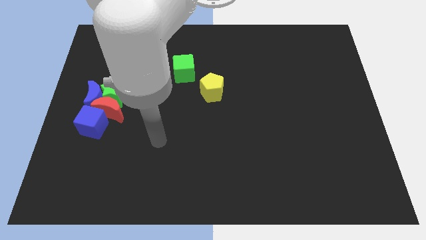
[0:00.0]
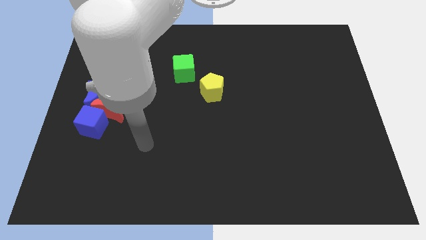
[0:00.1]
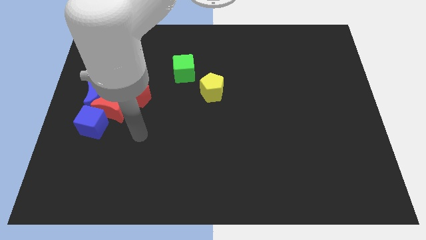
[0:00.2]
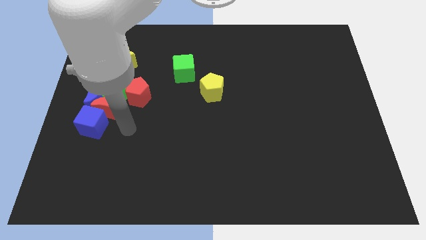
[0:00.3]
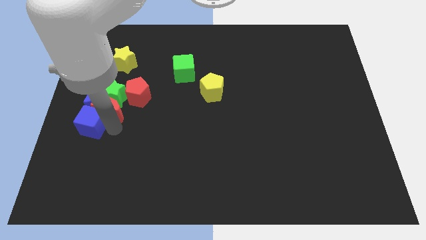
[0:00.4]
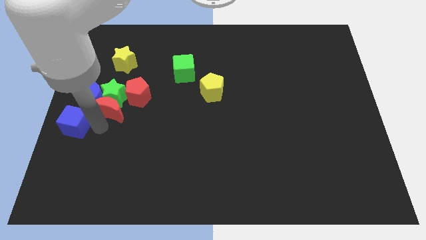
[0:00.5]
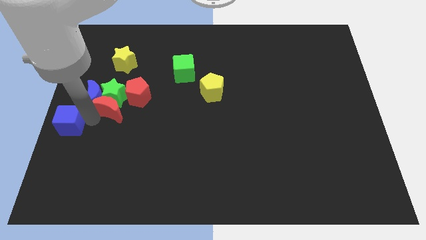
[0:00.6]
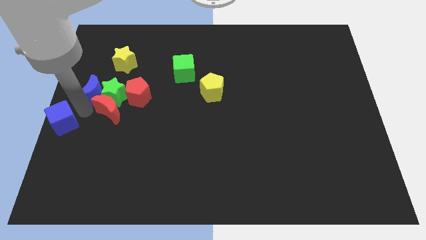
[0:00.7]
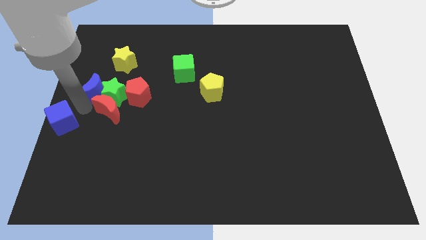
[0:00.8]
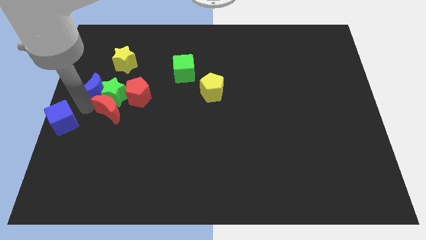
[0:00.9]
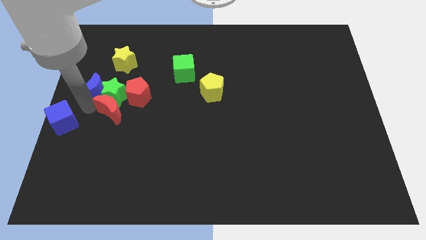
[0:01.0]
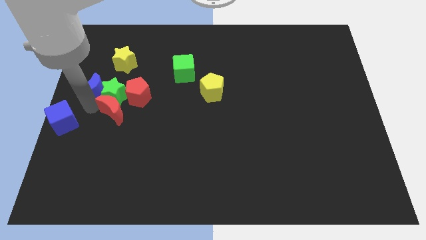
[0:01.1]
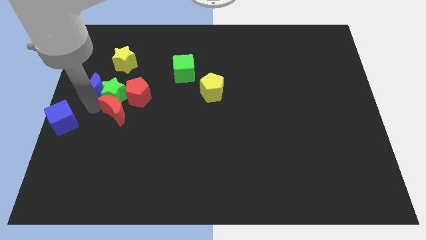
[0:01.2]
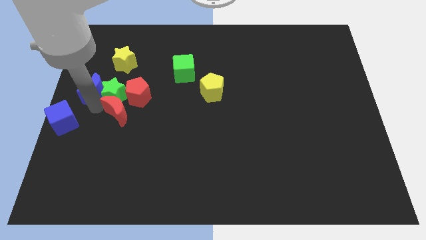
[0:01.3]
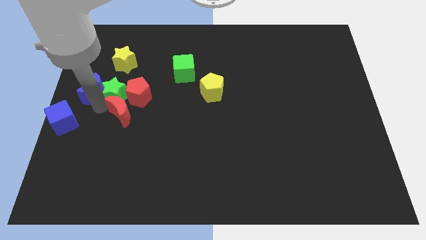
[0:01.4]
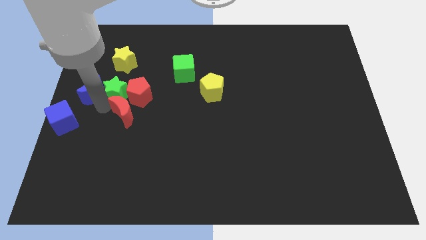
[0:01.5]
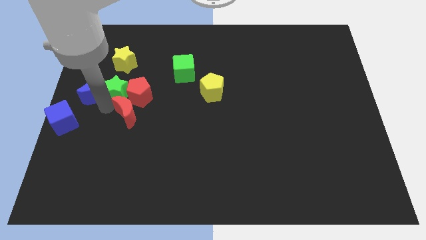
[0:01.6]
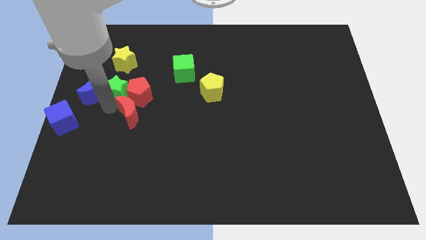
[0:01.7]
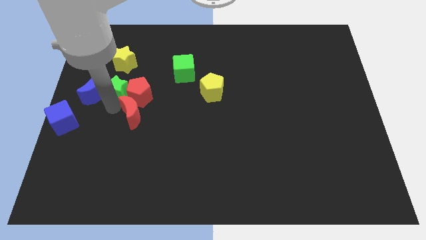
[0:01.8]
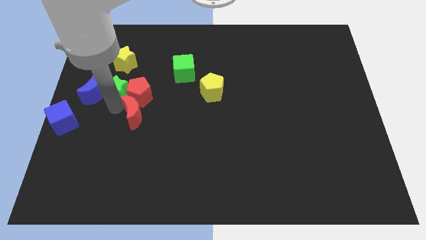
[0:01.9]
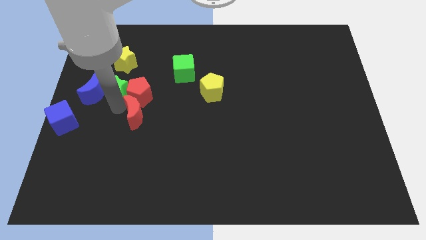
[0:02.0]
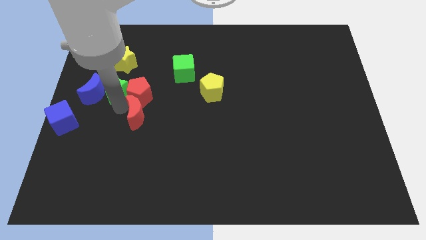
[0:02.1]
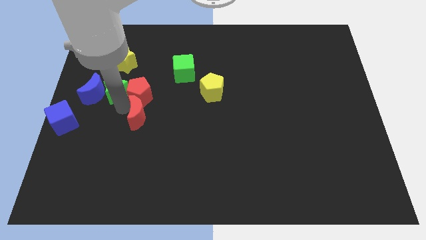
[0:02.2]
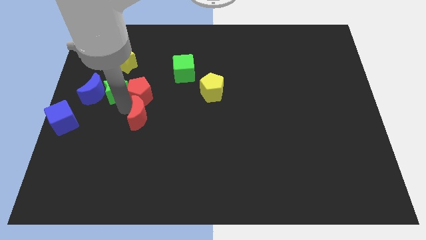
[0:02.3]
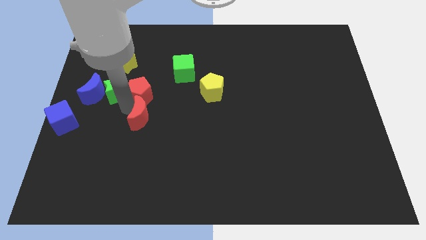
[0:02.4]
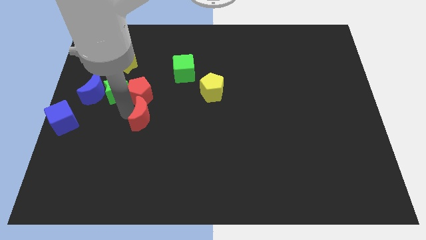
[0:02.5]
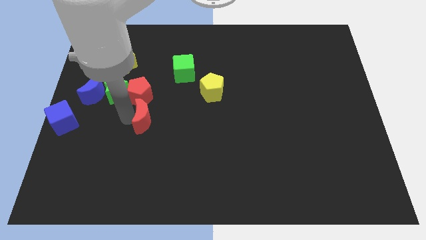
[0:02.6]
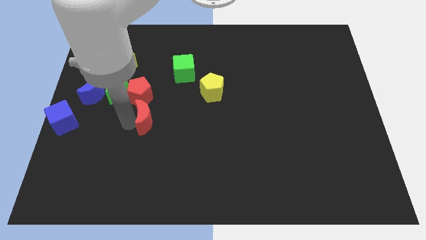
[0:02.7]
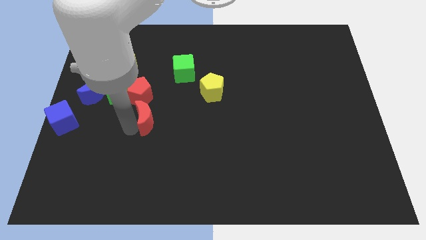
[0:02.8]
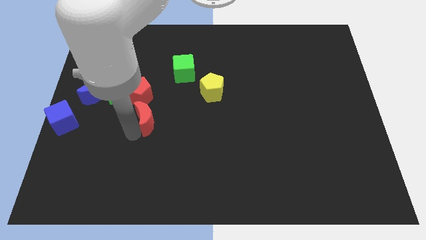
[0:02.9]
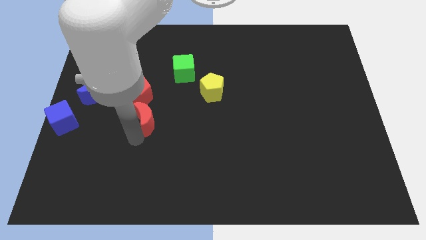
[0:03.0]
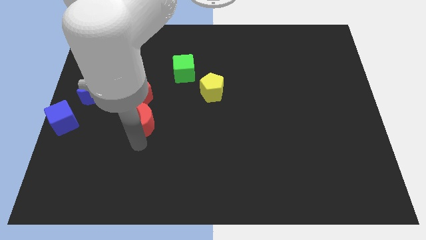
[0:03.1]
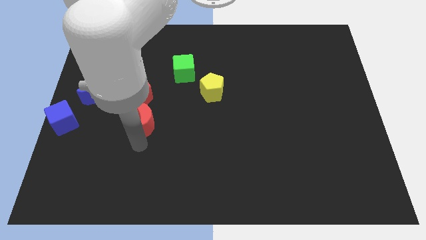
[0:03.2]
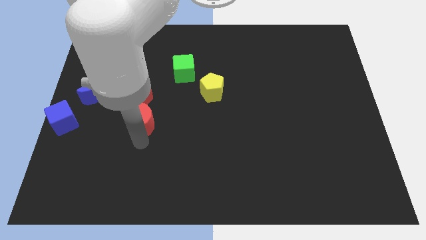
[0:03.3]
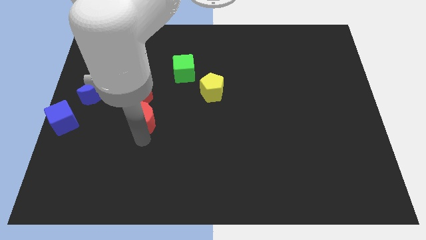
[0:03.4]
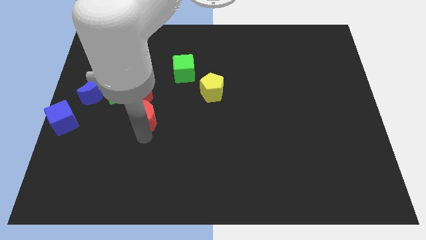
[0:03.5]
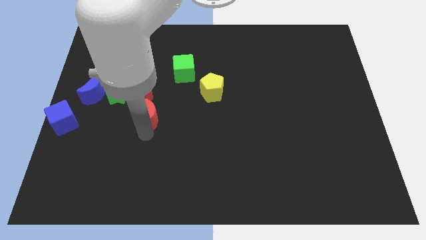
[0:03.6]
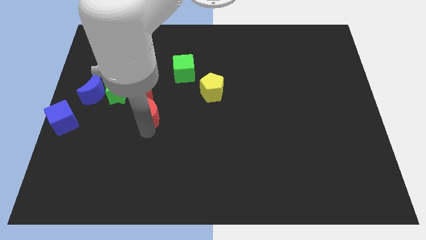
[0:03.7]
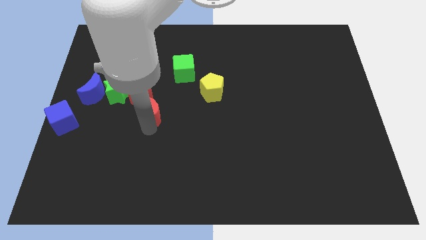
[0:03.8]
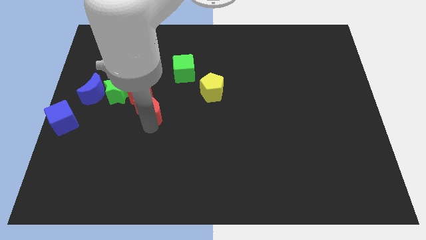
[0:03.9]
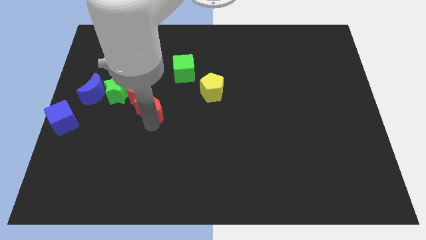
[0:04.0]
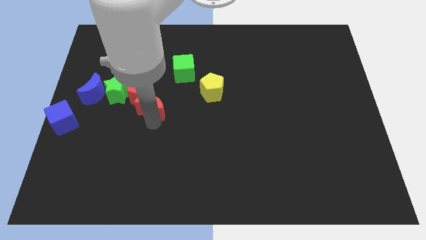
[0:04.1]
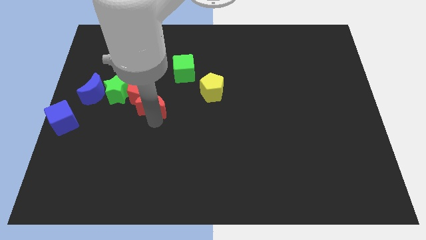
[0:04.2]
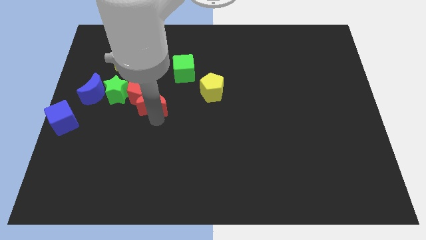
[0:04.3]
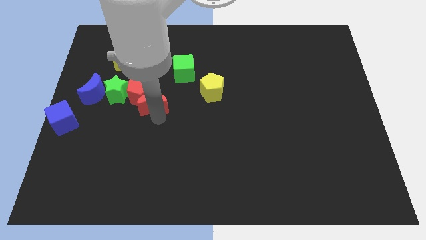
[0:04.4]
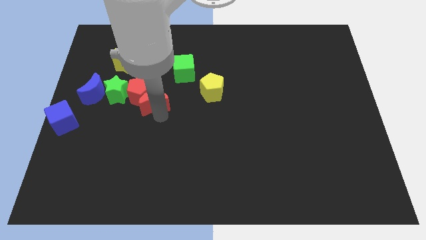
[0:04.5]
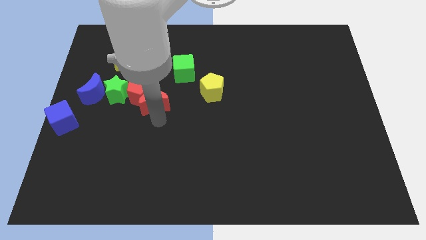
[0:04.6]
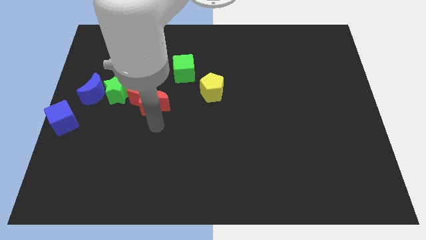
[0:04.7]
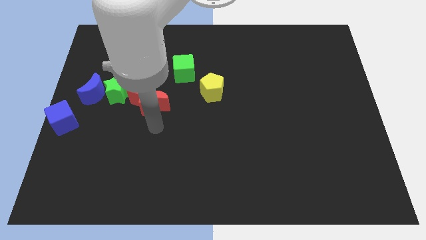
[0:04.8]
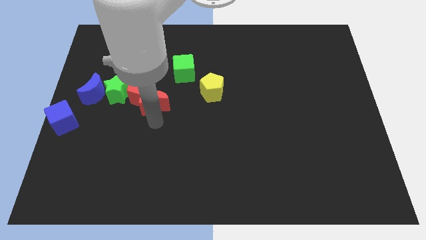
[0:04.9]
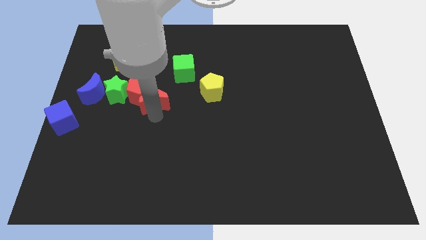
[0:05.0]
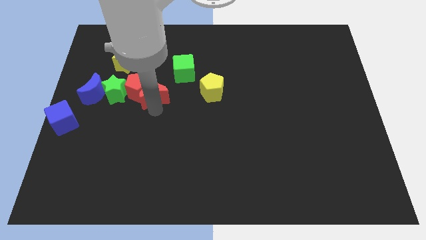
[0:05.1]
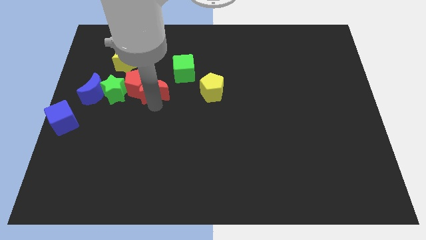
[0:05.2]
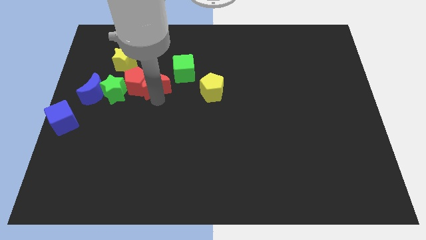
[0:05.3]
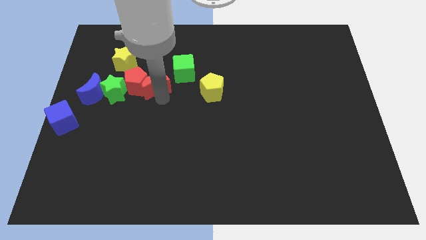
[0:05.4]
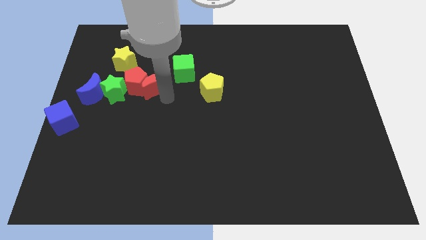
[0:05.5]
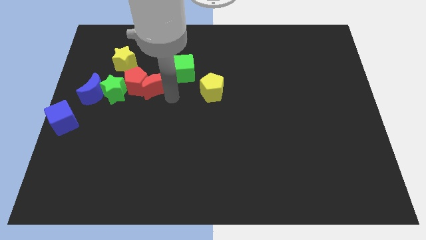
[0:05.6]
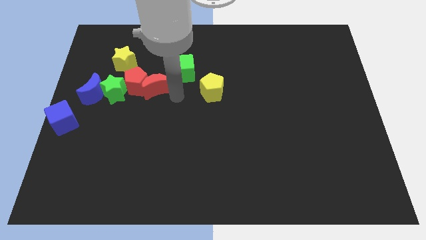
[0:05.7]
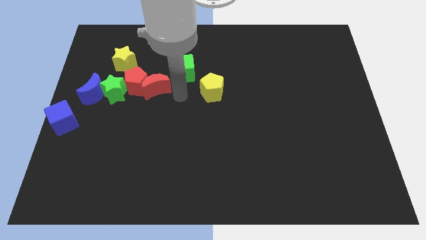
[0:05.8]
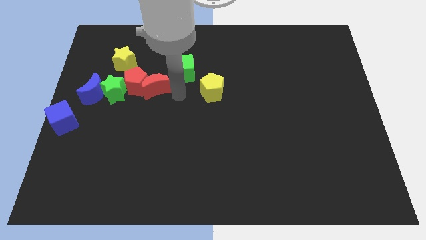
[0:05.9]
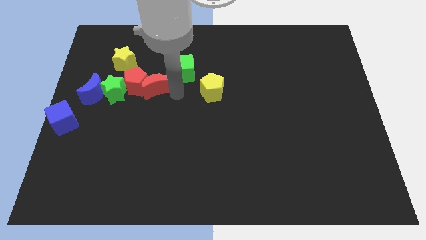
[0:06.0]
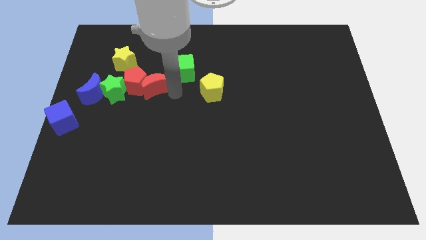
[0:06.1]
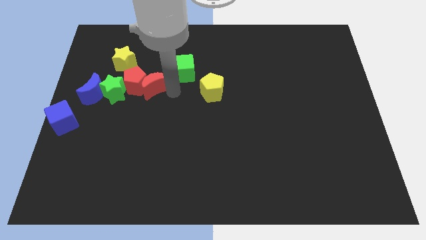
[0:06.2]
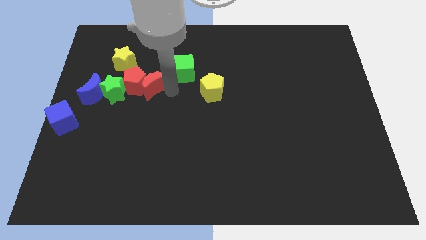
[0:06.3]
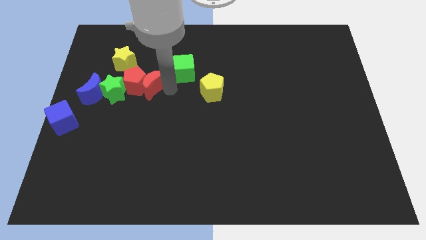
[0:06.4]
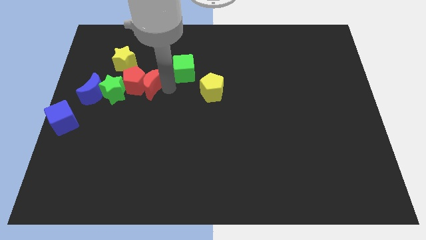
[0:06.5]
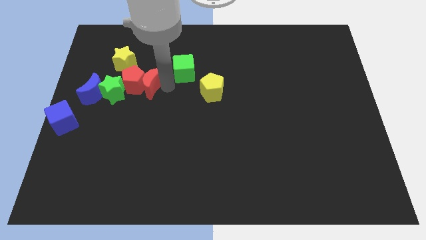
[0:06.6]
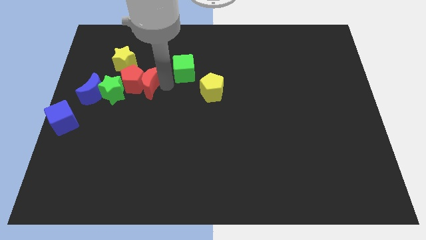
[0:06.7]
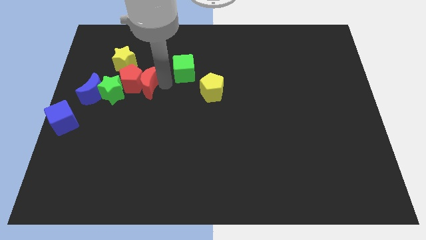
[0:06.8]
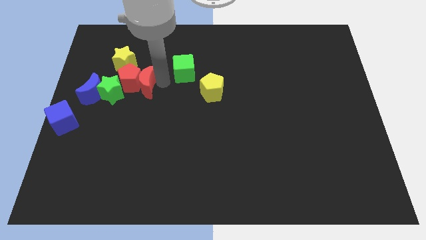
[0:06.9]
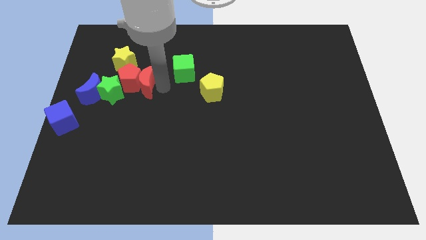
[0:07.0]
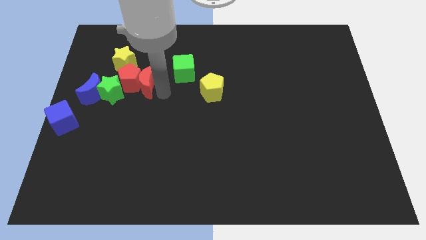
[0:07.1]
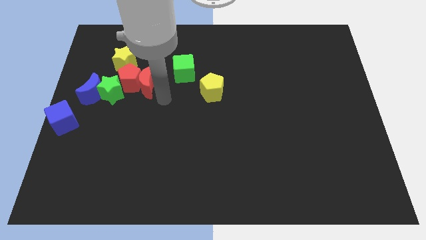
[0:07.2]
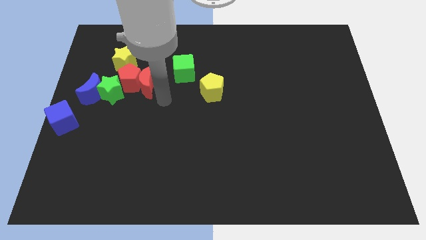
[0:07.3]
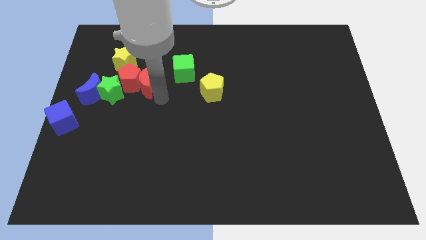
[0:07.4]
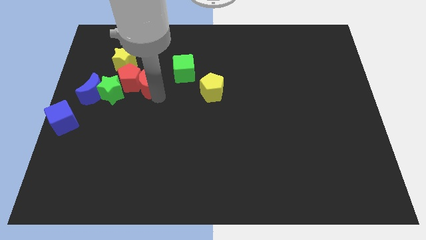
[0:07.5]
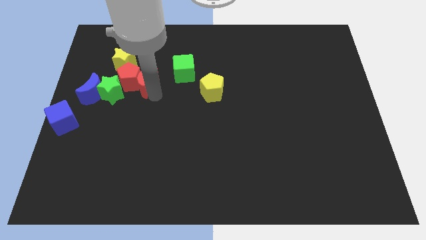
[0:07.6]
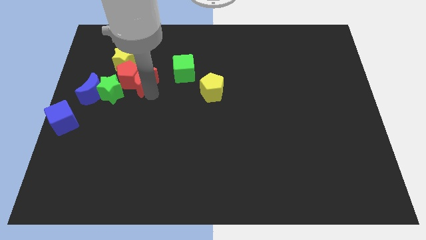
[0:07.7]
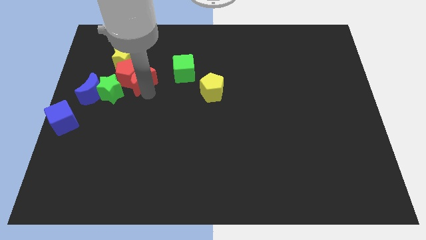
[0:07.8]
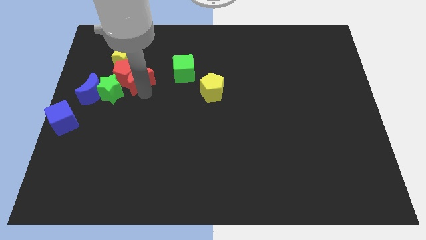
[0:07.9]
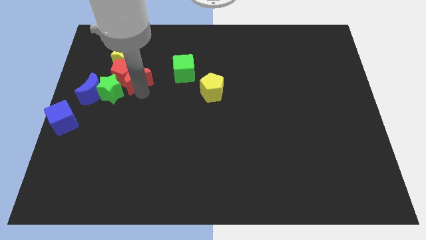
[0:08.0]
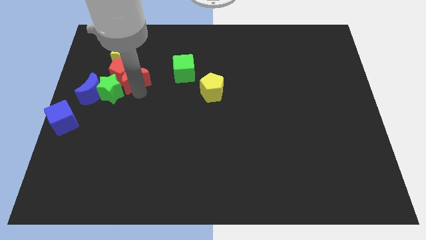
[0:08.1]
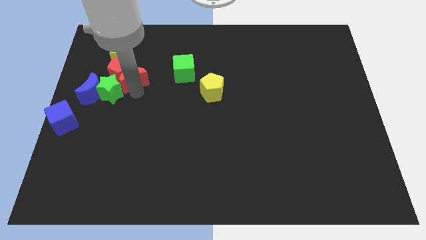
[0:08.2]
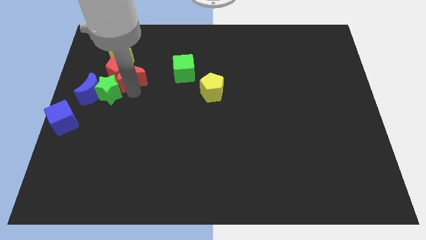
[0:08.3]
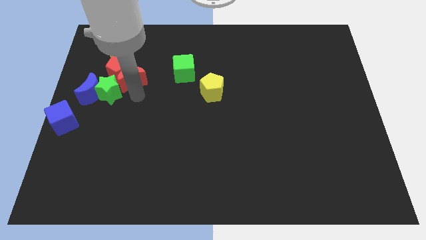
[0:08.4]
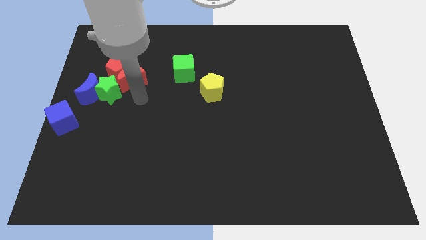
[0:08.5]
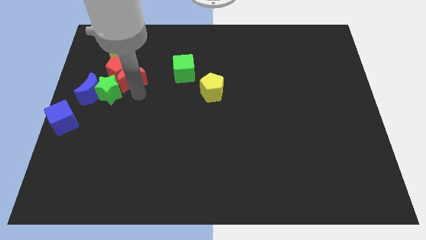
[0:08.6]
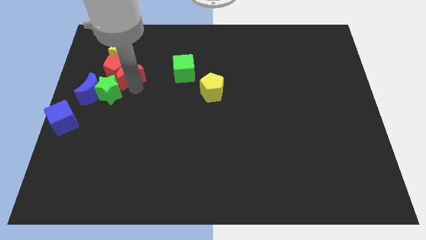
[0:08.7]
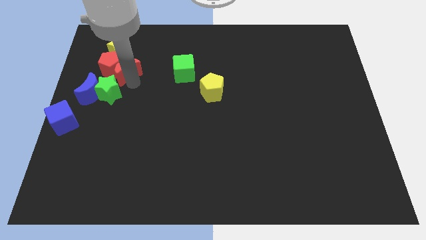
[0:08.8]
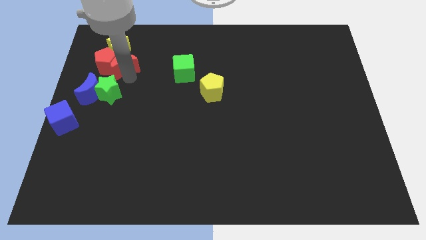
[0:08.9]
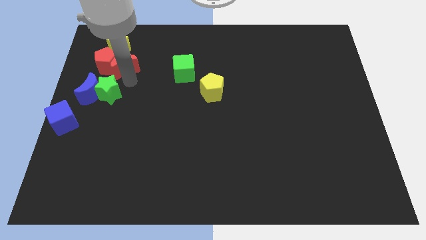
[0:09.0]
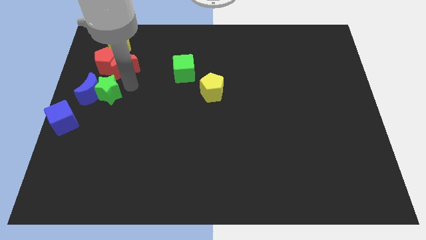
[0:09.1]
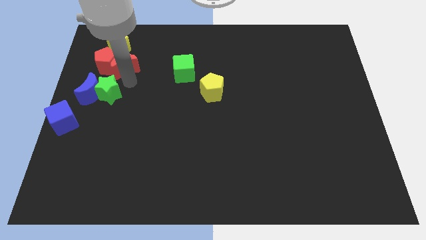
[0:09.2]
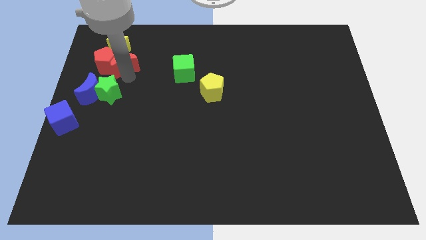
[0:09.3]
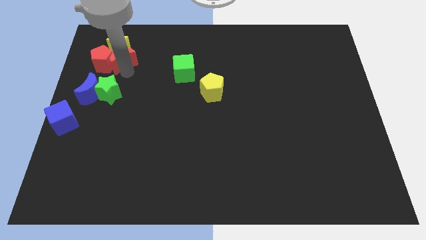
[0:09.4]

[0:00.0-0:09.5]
push the red moon close to the yellow star
